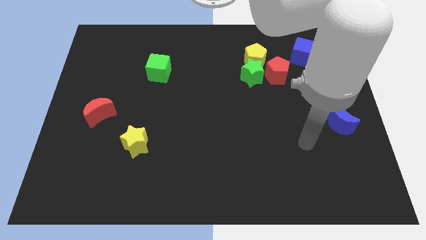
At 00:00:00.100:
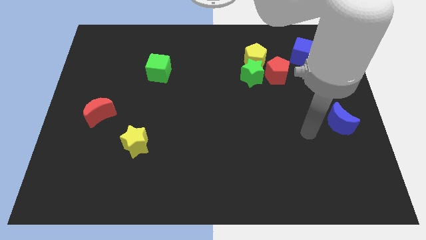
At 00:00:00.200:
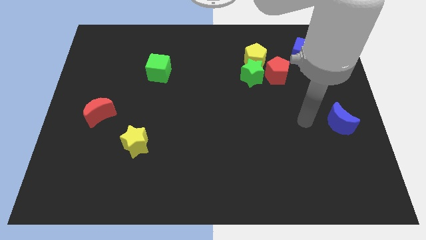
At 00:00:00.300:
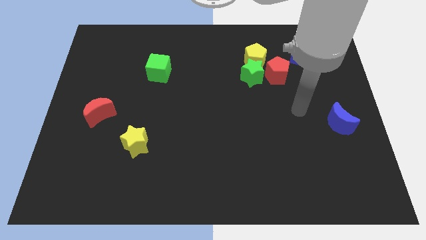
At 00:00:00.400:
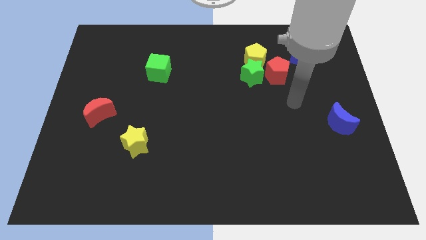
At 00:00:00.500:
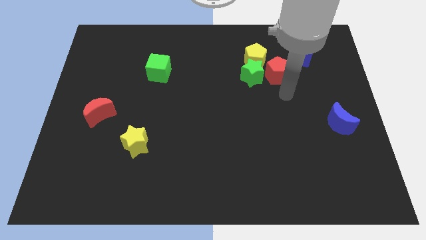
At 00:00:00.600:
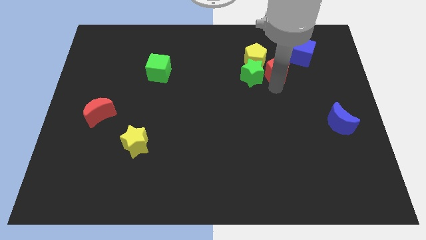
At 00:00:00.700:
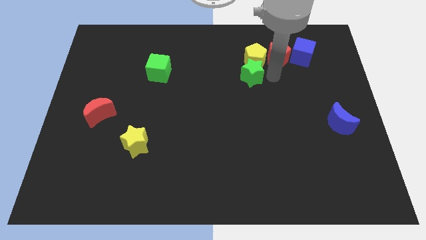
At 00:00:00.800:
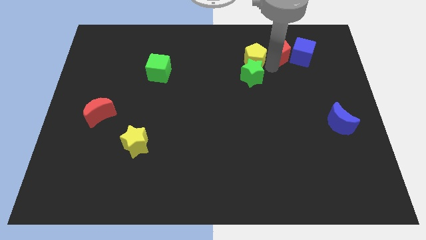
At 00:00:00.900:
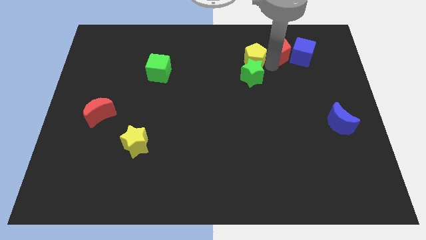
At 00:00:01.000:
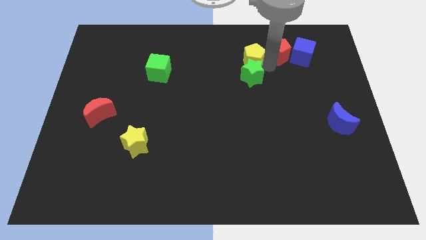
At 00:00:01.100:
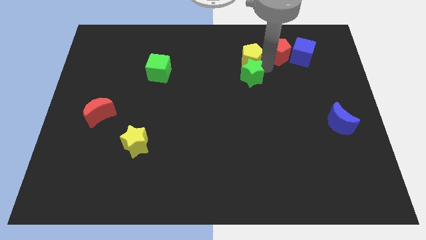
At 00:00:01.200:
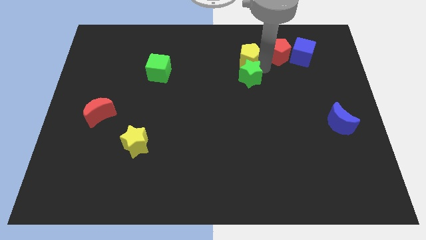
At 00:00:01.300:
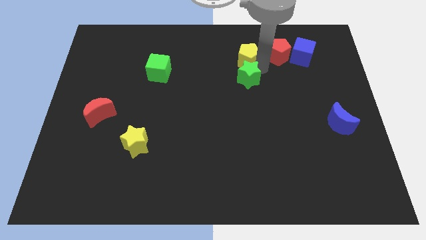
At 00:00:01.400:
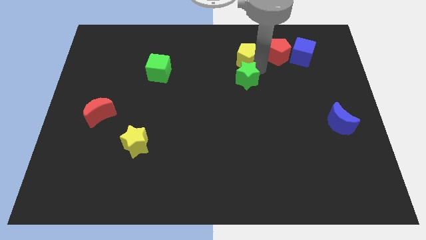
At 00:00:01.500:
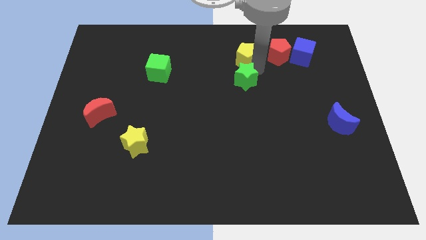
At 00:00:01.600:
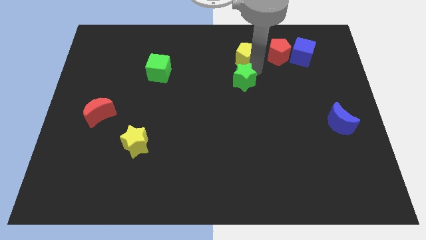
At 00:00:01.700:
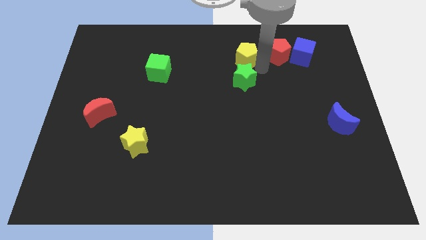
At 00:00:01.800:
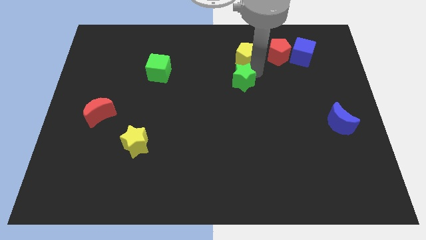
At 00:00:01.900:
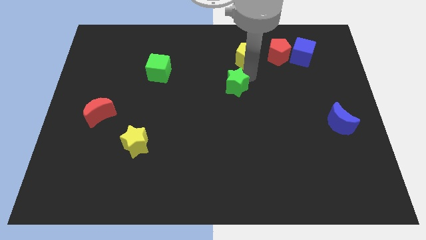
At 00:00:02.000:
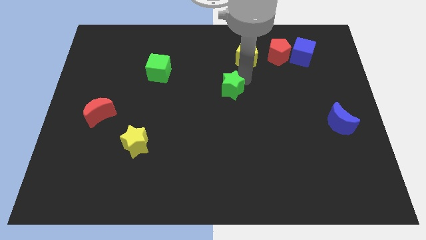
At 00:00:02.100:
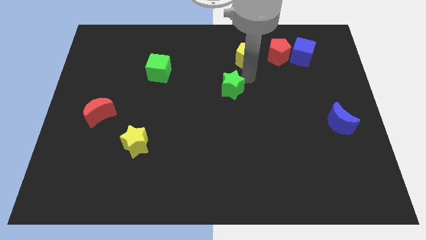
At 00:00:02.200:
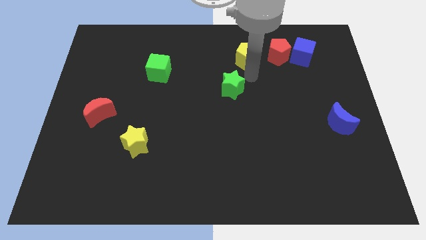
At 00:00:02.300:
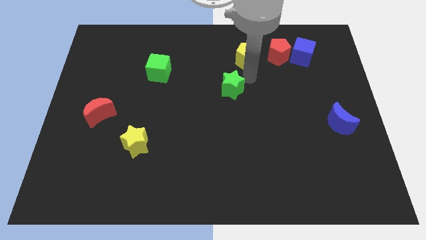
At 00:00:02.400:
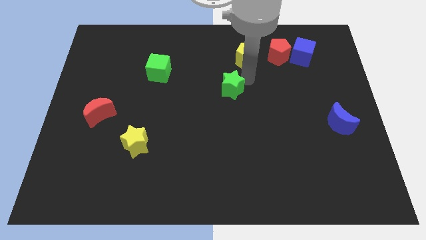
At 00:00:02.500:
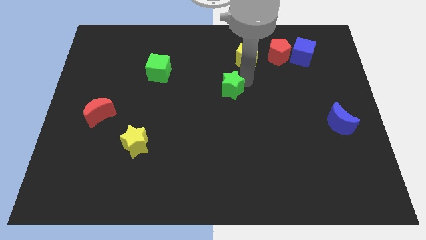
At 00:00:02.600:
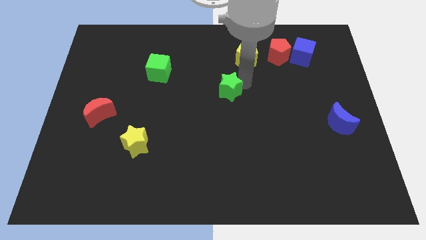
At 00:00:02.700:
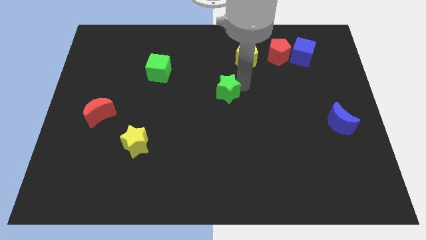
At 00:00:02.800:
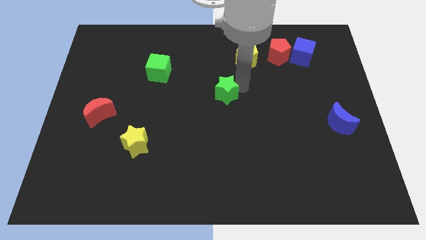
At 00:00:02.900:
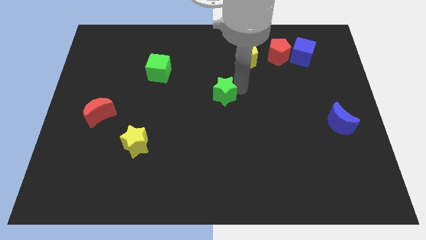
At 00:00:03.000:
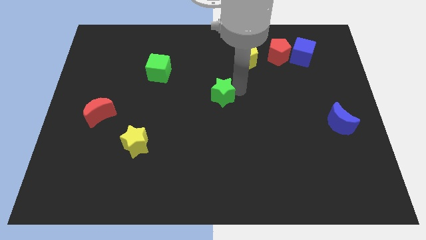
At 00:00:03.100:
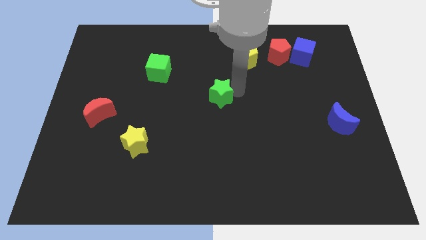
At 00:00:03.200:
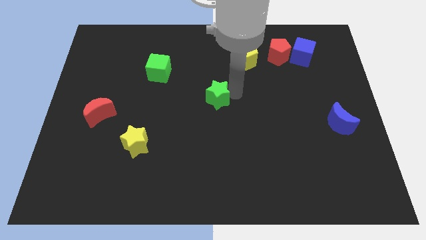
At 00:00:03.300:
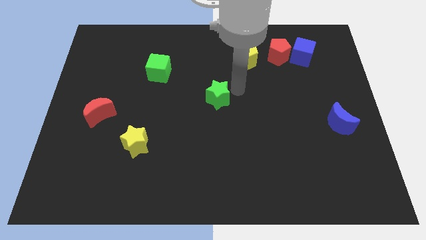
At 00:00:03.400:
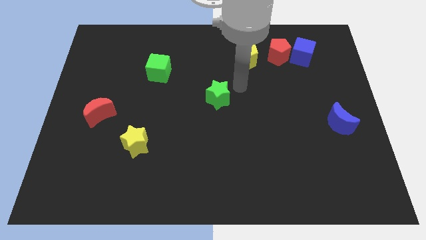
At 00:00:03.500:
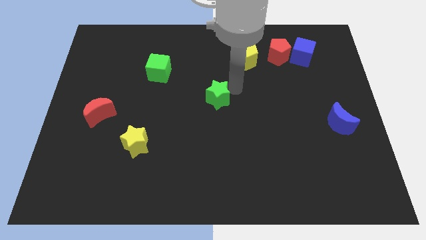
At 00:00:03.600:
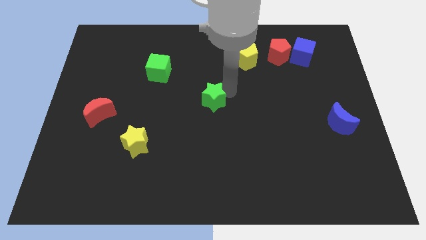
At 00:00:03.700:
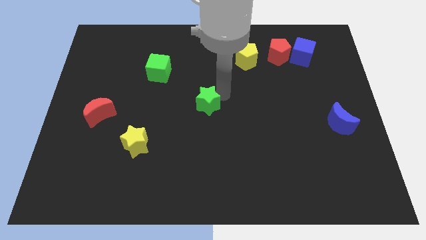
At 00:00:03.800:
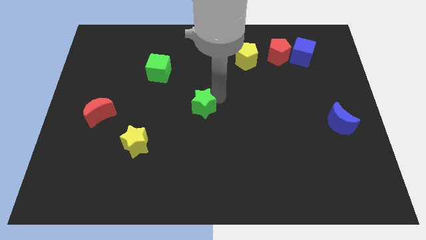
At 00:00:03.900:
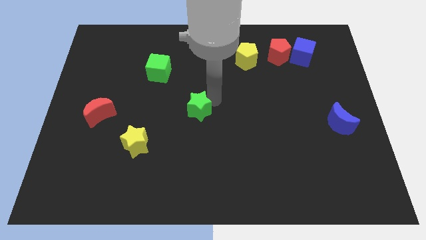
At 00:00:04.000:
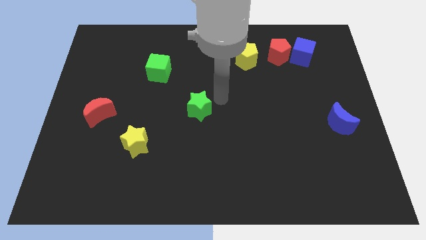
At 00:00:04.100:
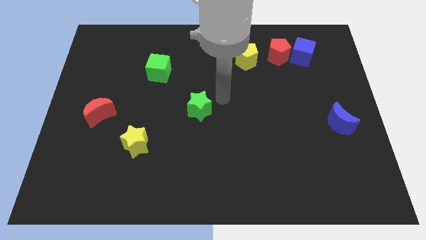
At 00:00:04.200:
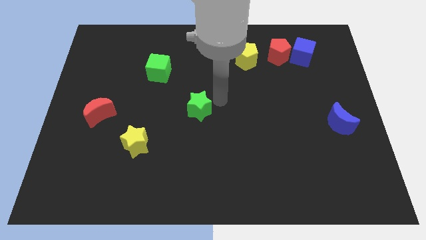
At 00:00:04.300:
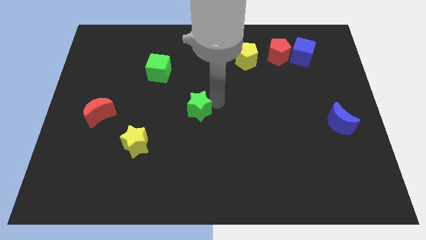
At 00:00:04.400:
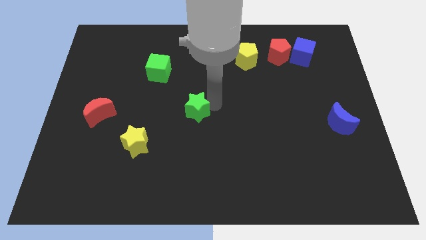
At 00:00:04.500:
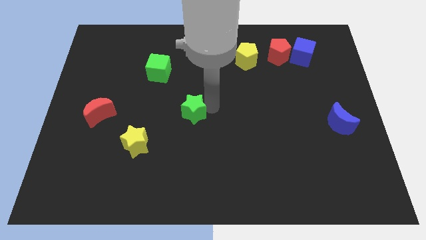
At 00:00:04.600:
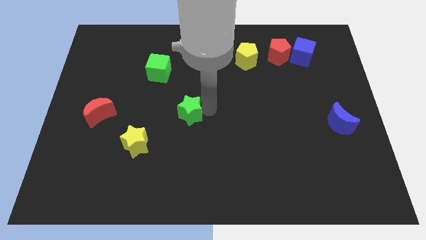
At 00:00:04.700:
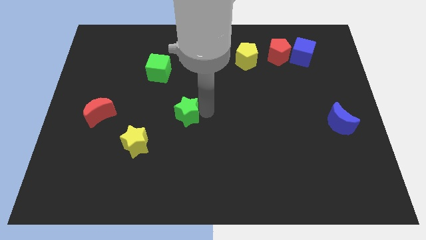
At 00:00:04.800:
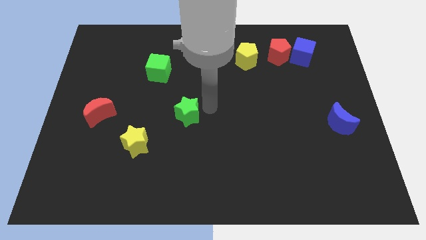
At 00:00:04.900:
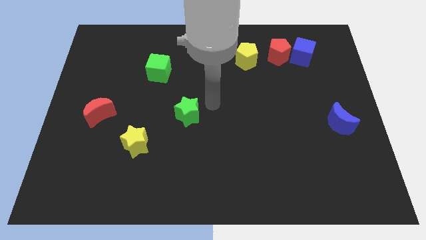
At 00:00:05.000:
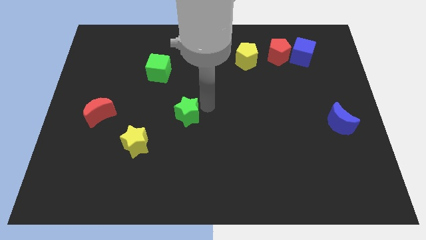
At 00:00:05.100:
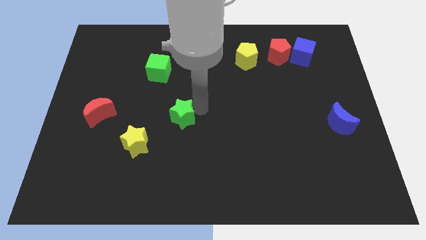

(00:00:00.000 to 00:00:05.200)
slide the green star to the top right side of the yellow star

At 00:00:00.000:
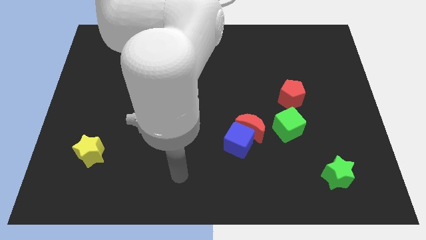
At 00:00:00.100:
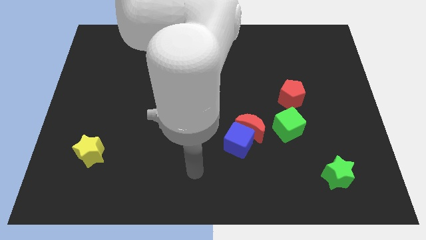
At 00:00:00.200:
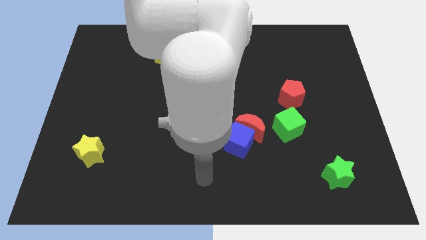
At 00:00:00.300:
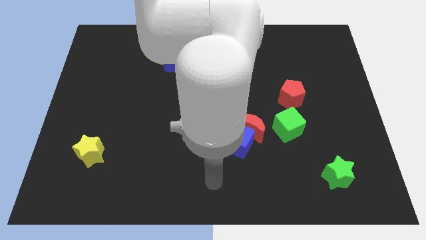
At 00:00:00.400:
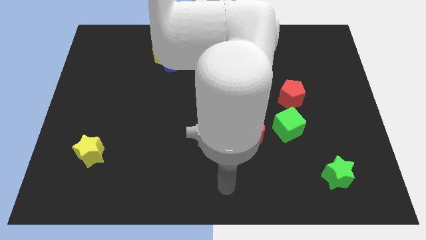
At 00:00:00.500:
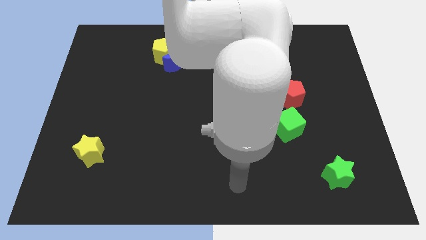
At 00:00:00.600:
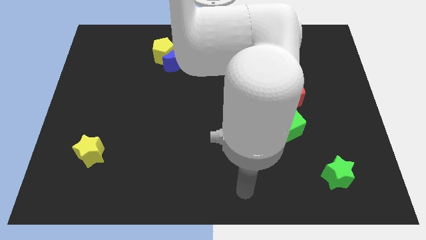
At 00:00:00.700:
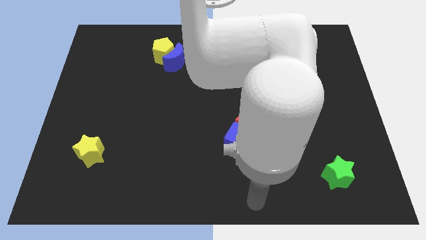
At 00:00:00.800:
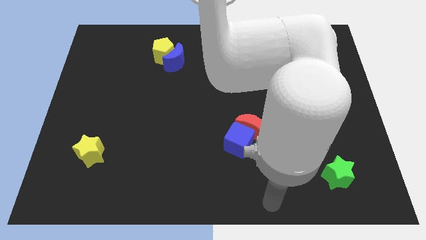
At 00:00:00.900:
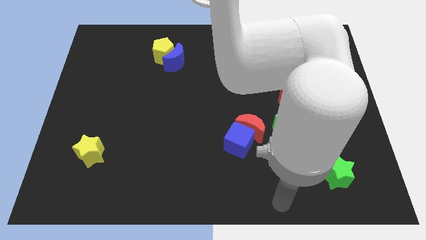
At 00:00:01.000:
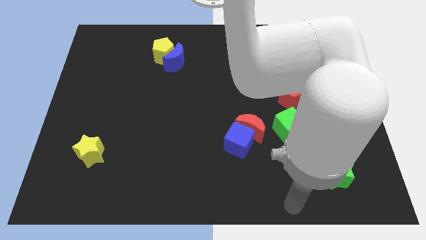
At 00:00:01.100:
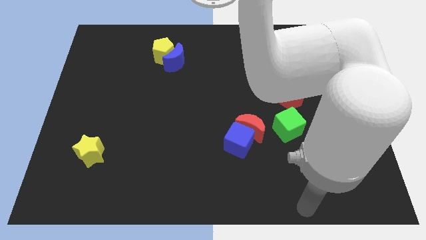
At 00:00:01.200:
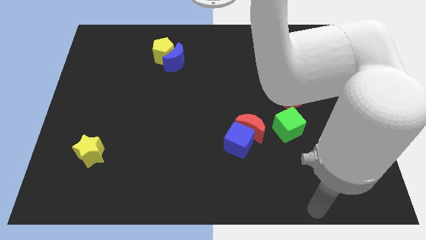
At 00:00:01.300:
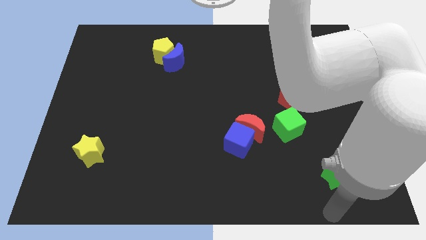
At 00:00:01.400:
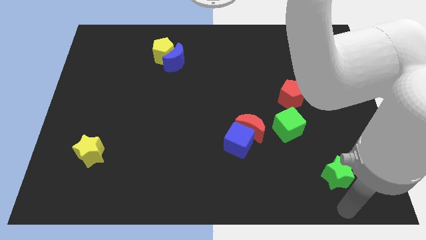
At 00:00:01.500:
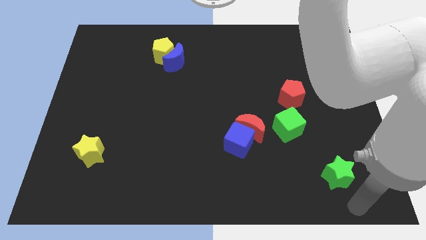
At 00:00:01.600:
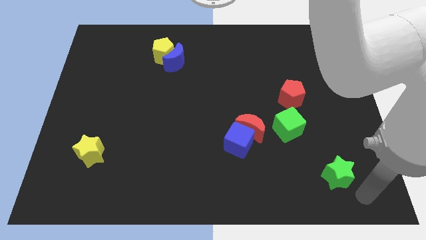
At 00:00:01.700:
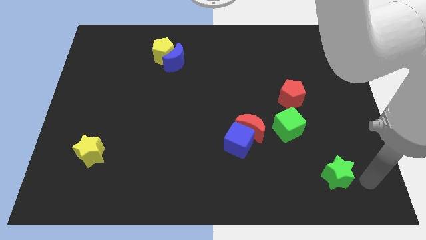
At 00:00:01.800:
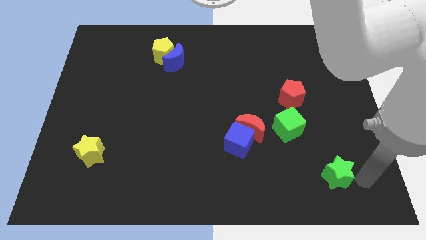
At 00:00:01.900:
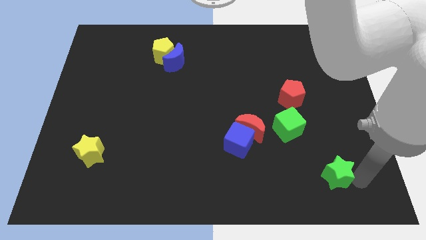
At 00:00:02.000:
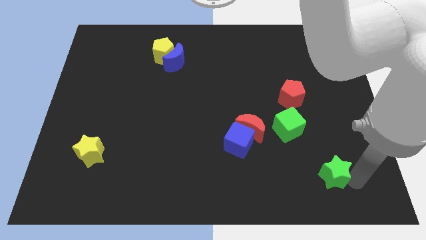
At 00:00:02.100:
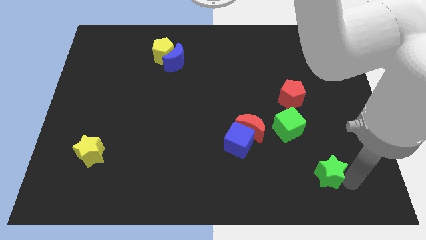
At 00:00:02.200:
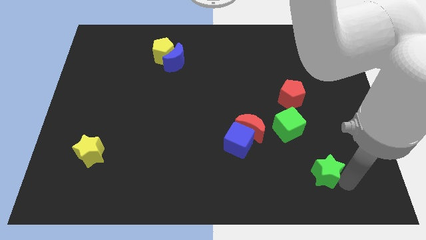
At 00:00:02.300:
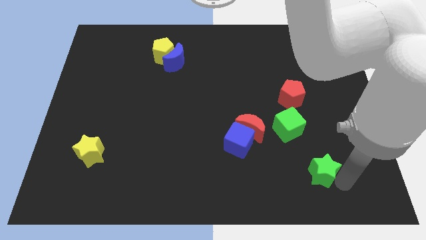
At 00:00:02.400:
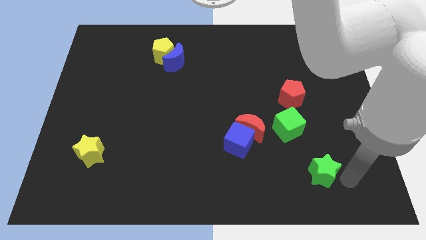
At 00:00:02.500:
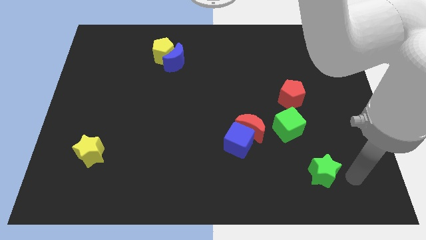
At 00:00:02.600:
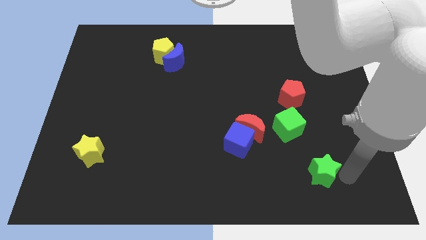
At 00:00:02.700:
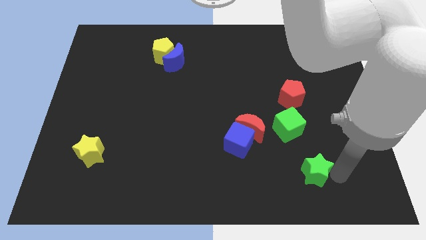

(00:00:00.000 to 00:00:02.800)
push the green star below the green cube
